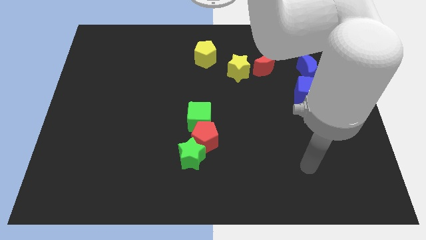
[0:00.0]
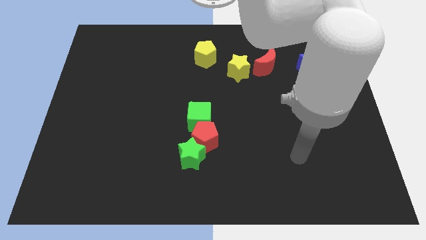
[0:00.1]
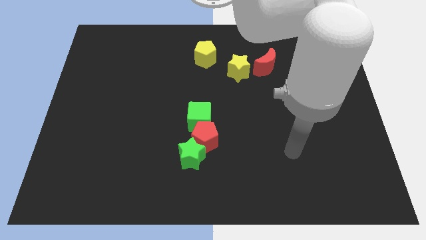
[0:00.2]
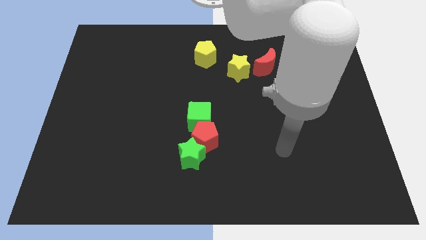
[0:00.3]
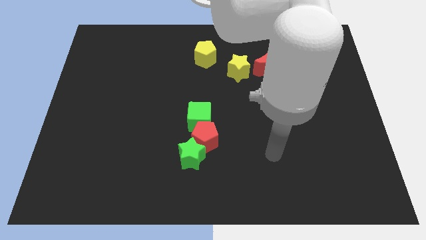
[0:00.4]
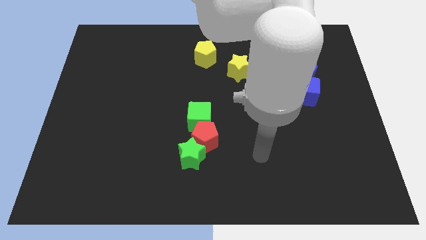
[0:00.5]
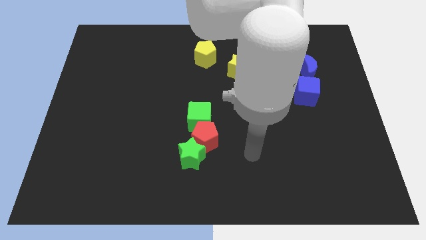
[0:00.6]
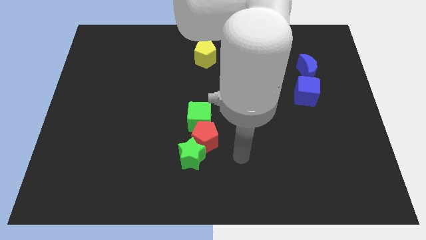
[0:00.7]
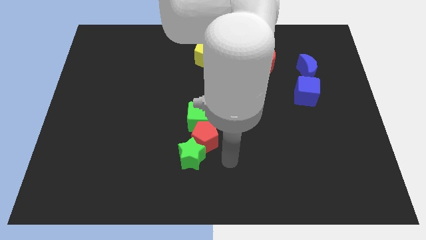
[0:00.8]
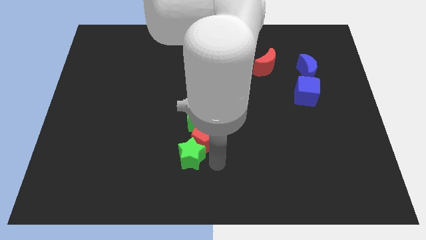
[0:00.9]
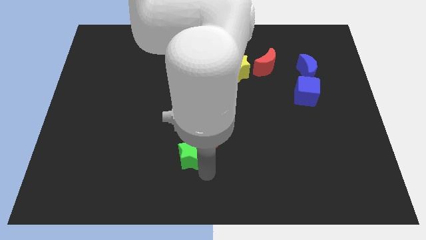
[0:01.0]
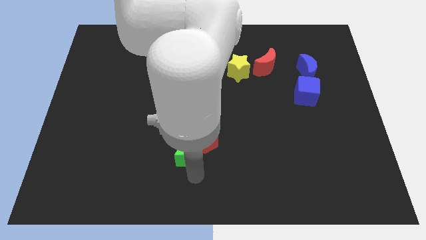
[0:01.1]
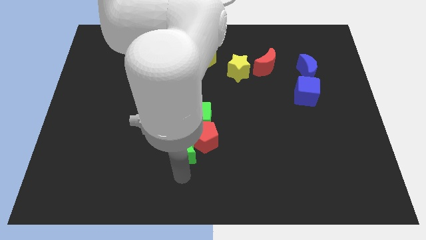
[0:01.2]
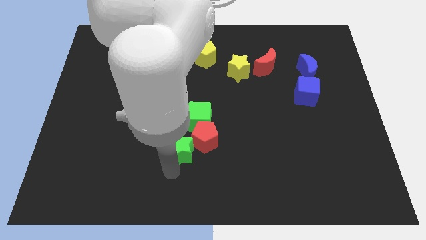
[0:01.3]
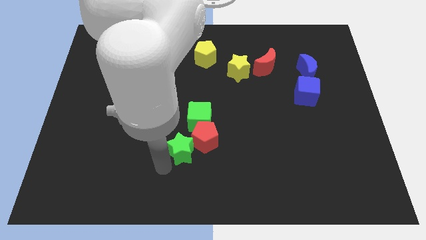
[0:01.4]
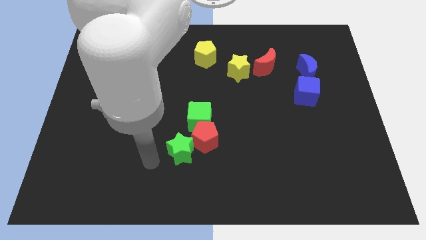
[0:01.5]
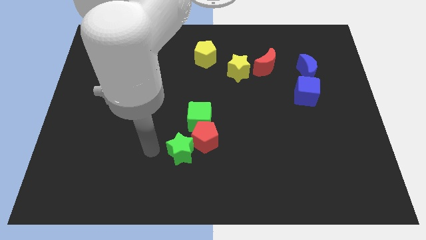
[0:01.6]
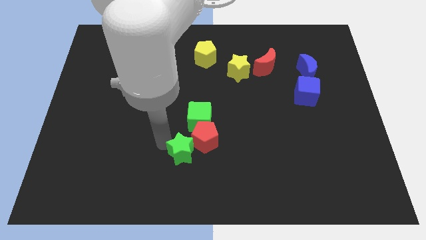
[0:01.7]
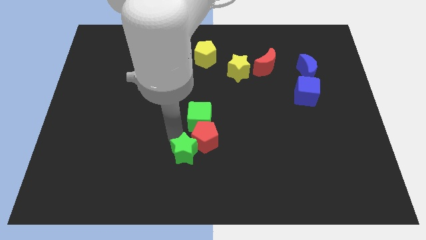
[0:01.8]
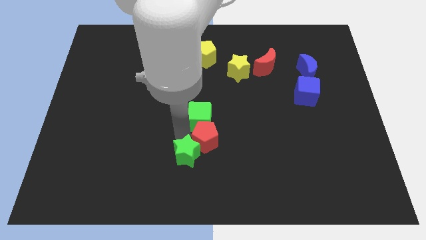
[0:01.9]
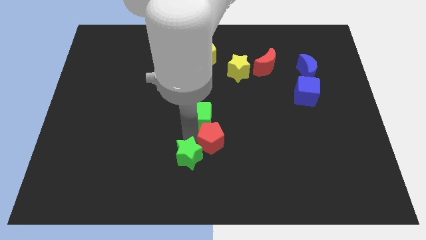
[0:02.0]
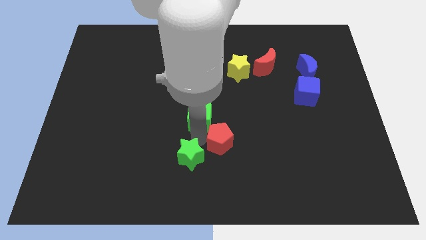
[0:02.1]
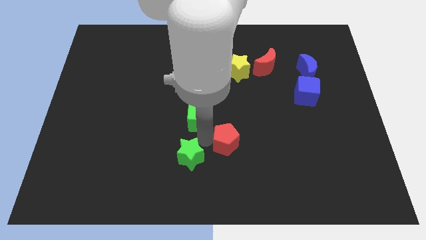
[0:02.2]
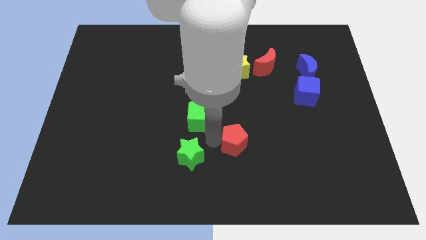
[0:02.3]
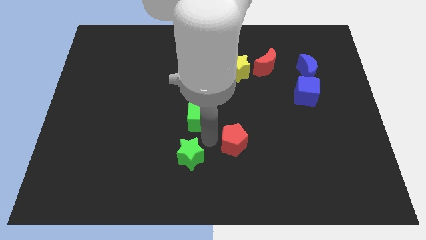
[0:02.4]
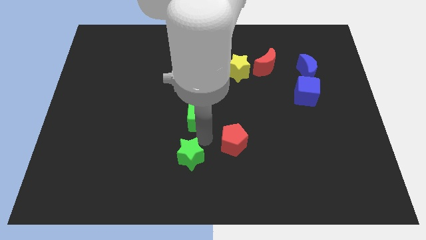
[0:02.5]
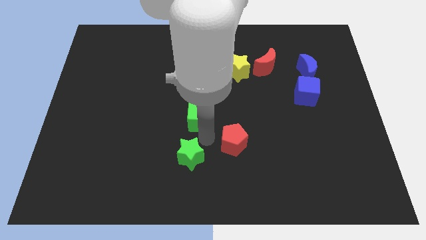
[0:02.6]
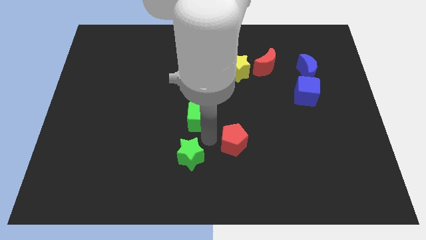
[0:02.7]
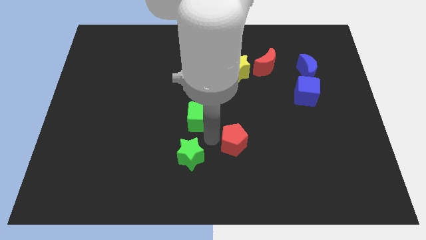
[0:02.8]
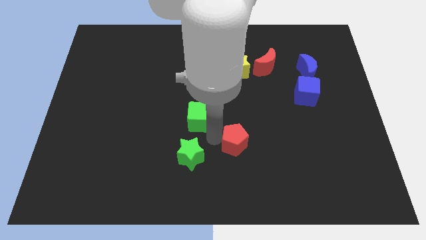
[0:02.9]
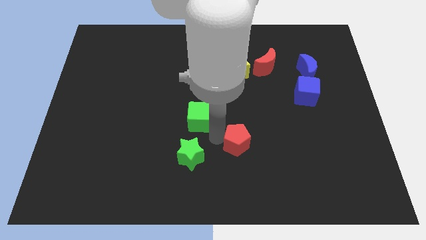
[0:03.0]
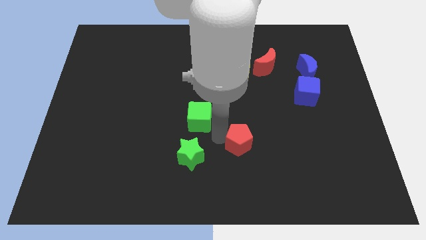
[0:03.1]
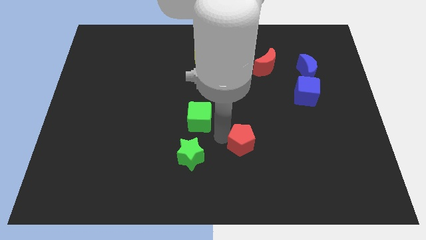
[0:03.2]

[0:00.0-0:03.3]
pull the red pentagon apart from the green cube and green star

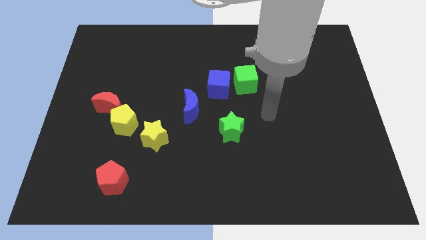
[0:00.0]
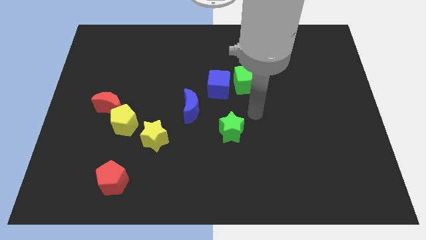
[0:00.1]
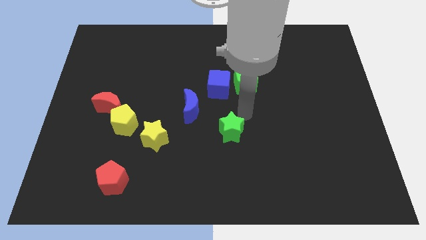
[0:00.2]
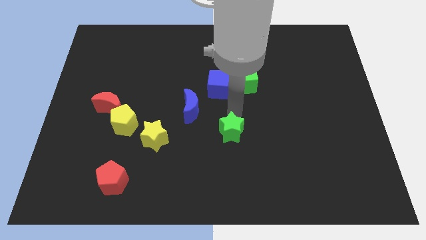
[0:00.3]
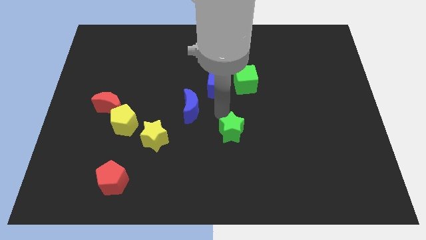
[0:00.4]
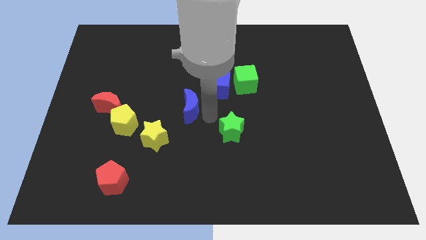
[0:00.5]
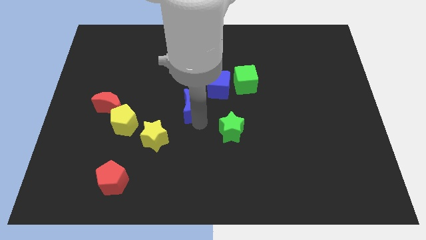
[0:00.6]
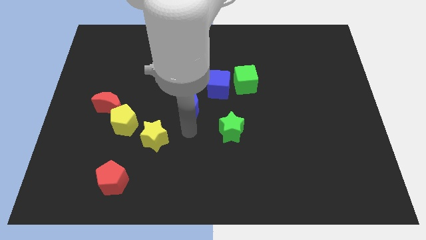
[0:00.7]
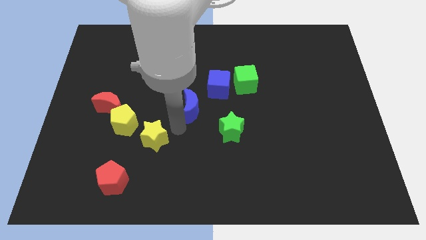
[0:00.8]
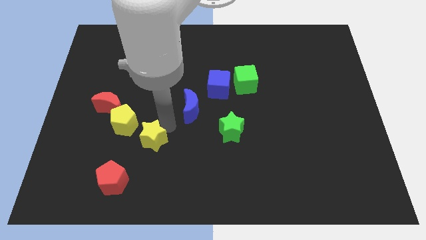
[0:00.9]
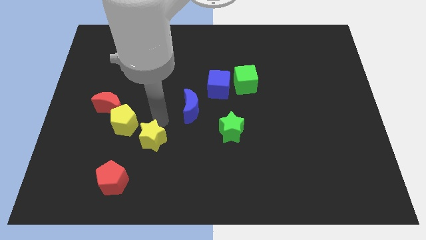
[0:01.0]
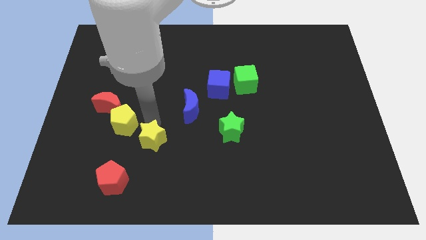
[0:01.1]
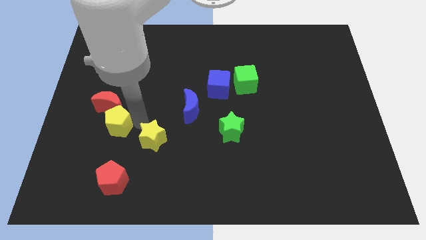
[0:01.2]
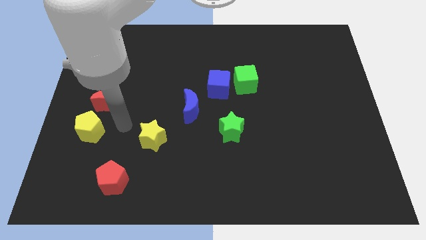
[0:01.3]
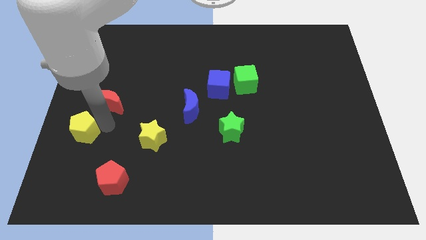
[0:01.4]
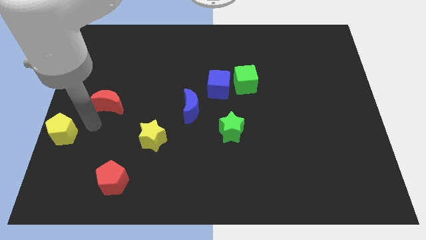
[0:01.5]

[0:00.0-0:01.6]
pull the red moon apart from the yellow pentagon

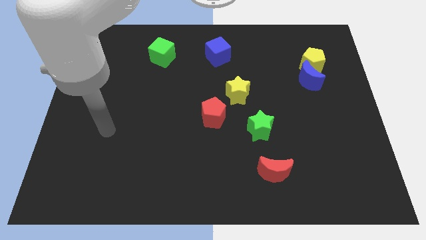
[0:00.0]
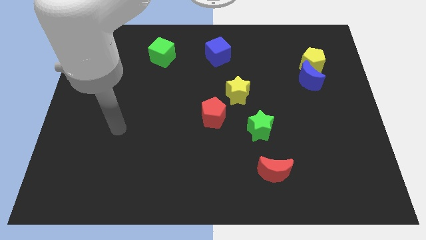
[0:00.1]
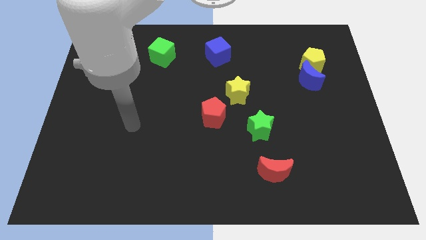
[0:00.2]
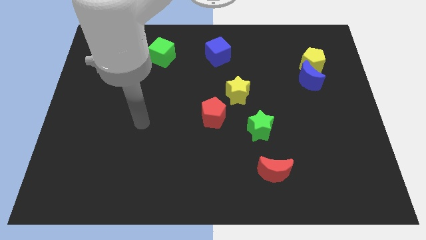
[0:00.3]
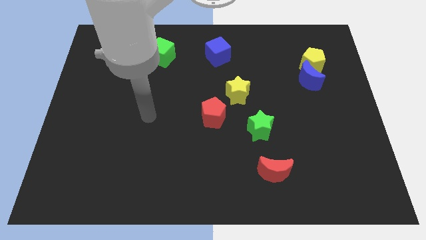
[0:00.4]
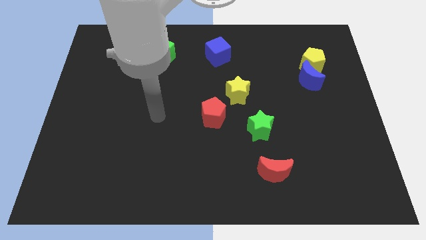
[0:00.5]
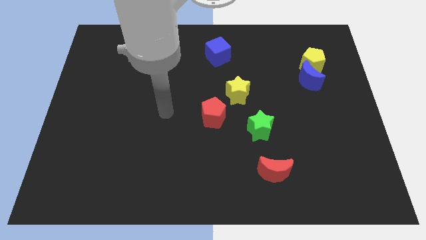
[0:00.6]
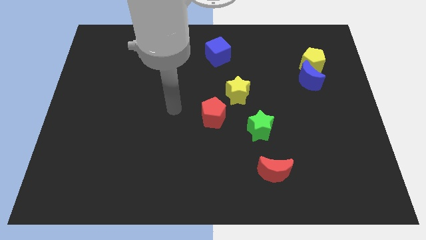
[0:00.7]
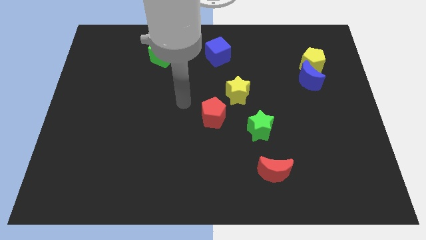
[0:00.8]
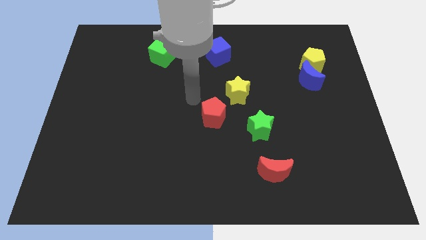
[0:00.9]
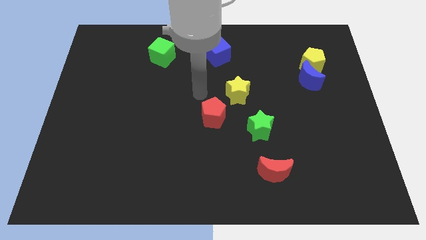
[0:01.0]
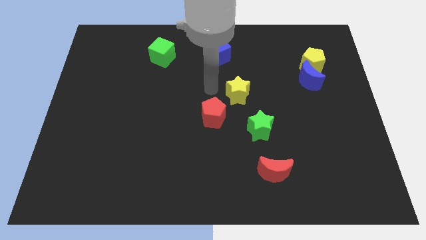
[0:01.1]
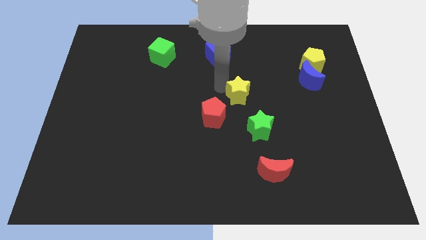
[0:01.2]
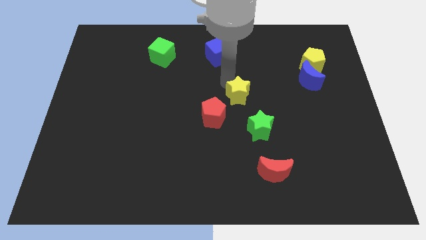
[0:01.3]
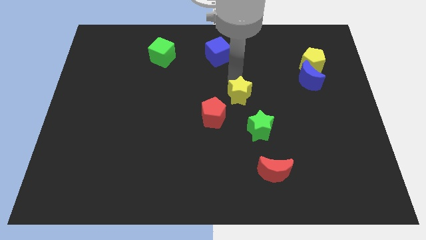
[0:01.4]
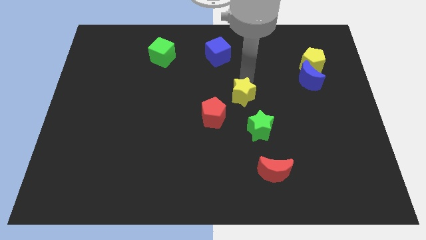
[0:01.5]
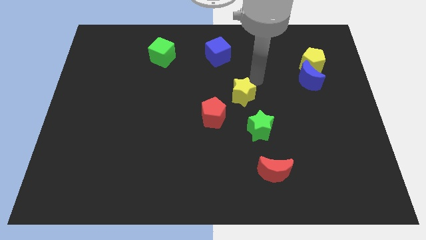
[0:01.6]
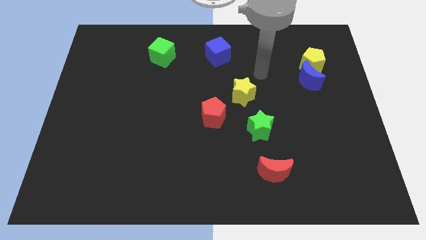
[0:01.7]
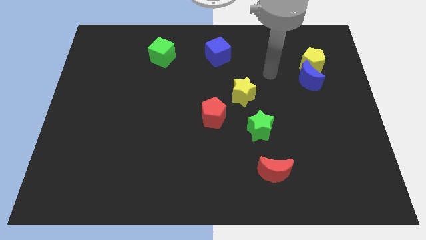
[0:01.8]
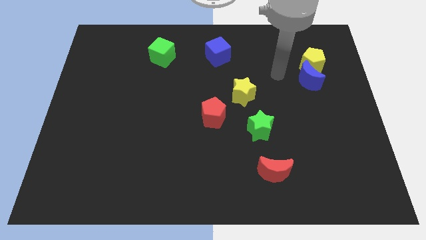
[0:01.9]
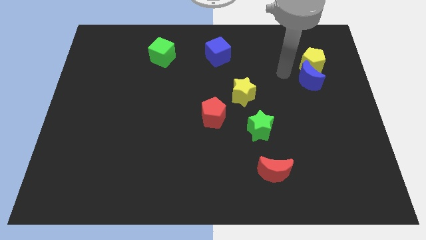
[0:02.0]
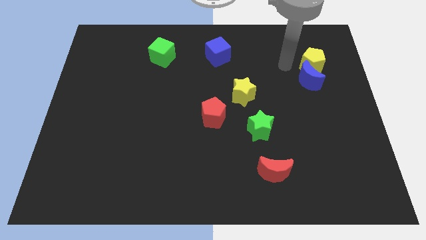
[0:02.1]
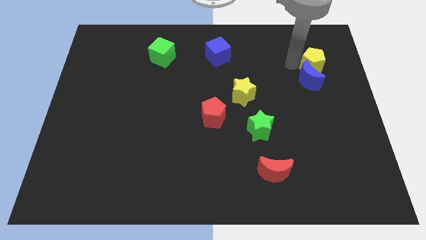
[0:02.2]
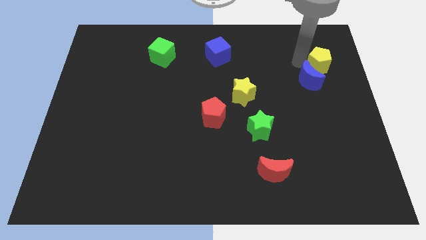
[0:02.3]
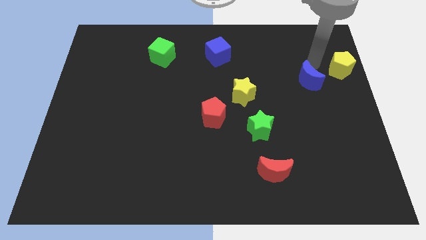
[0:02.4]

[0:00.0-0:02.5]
pull the blue moon apart from the yellow pentagon

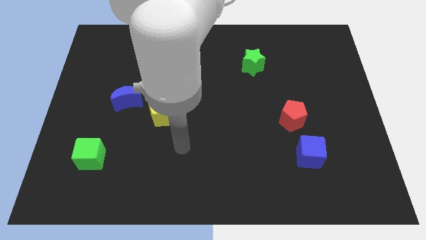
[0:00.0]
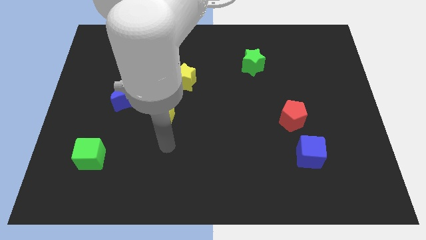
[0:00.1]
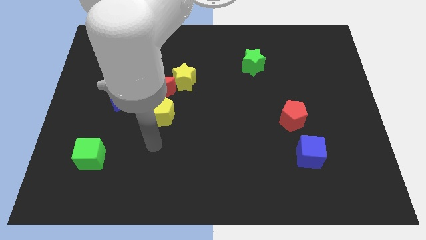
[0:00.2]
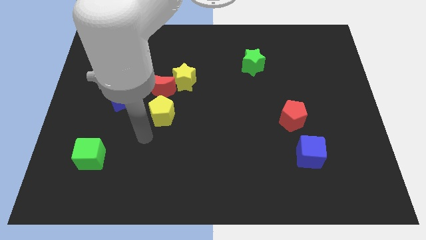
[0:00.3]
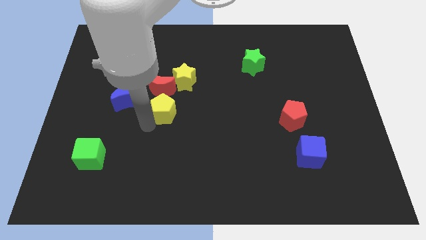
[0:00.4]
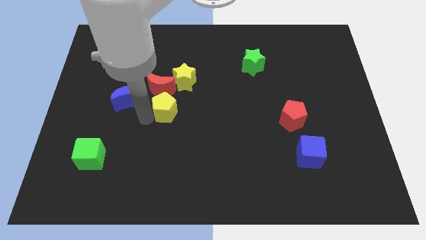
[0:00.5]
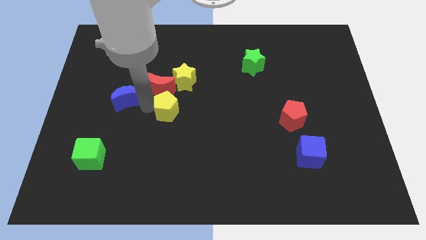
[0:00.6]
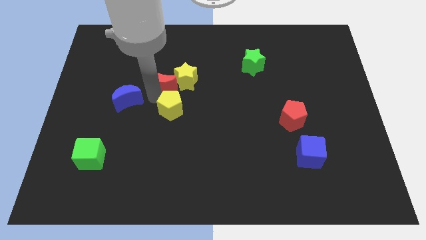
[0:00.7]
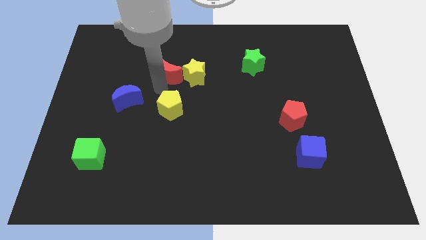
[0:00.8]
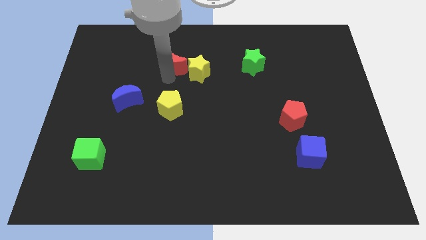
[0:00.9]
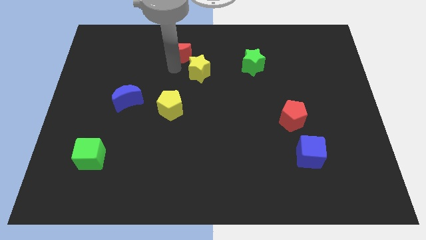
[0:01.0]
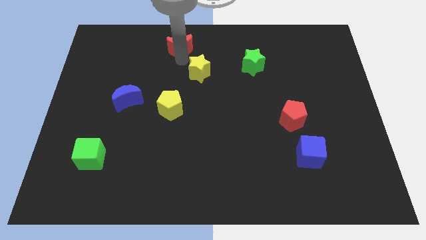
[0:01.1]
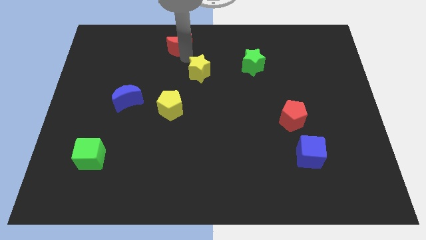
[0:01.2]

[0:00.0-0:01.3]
pull the yellow star apart from the red moon

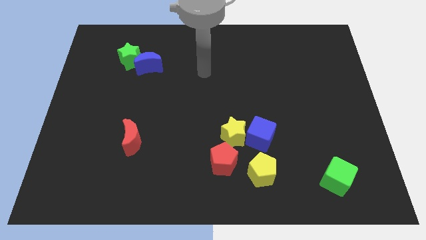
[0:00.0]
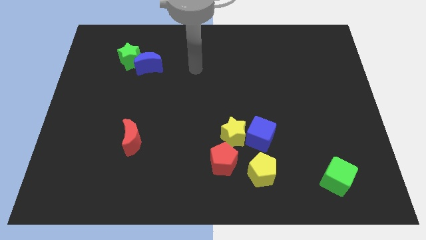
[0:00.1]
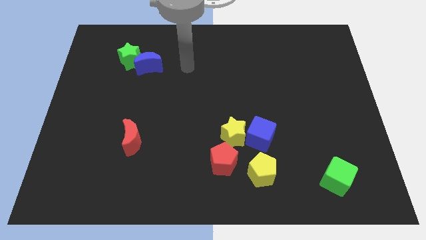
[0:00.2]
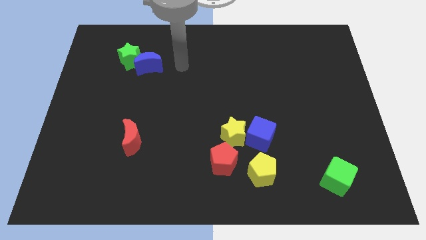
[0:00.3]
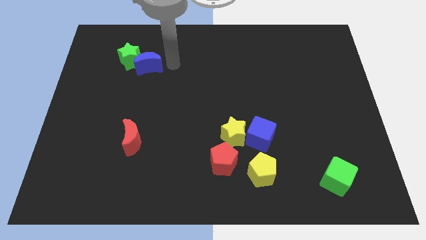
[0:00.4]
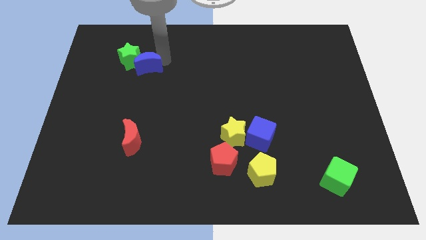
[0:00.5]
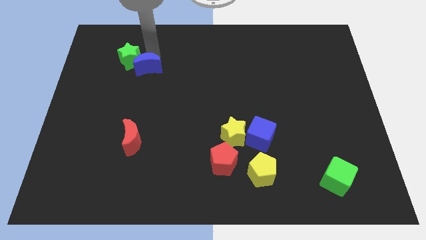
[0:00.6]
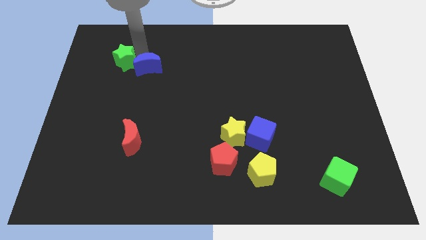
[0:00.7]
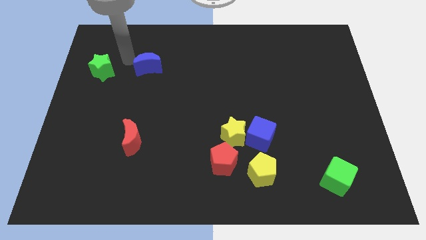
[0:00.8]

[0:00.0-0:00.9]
pull the blue moon apart from the green star
